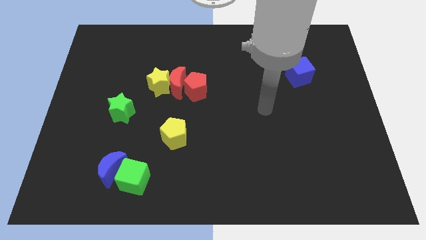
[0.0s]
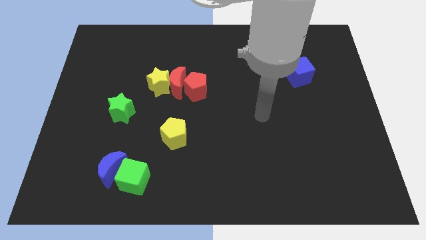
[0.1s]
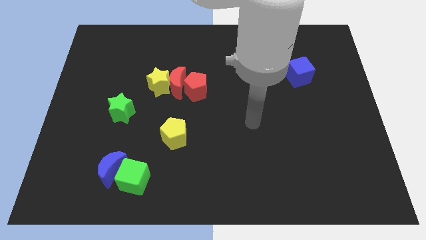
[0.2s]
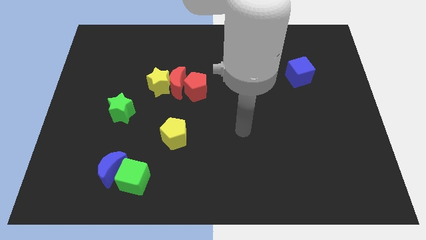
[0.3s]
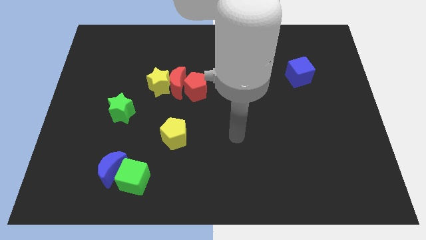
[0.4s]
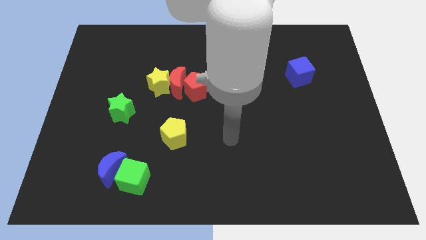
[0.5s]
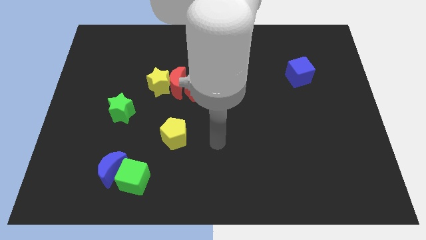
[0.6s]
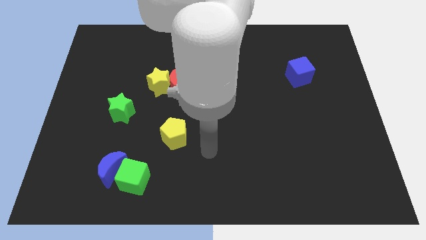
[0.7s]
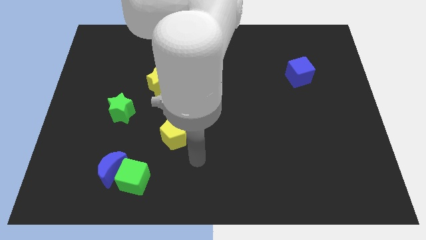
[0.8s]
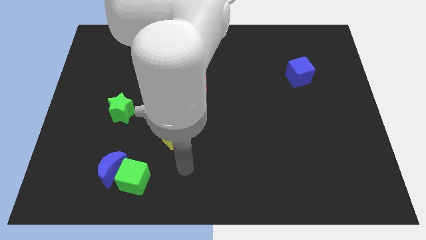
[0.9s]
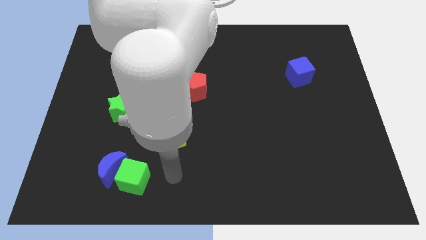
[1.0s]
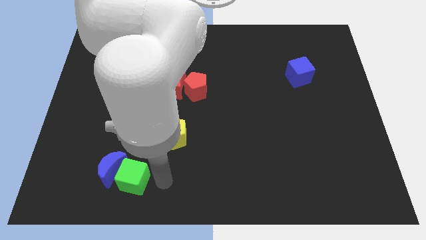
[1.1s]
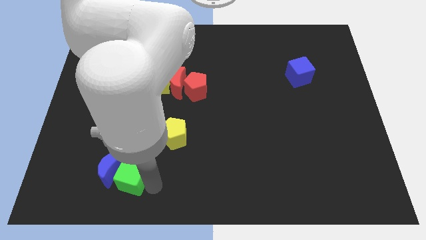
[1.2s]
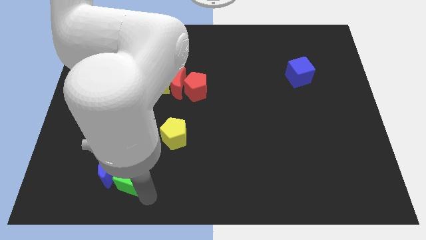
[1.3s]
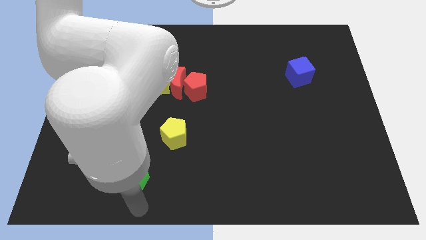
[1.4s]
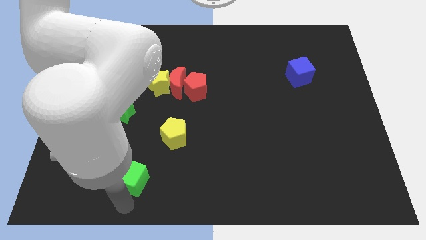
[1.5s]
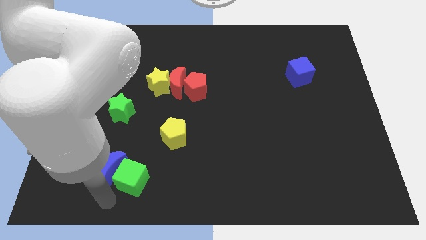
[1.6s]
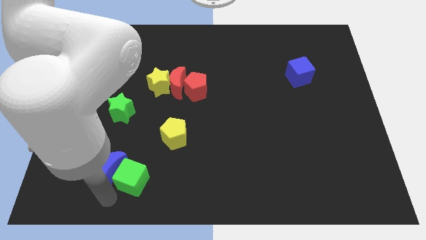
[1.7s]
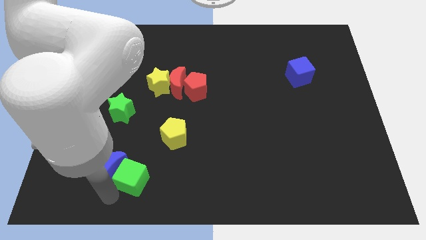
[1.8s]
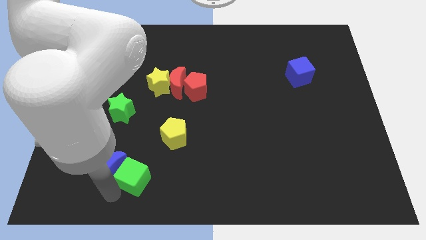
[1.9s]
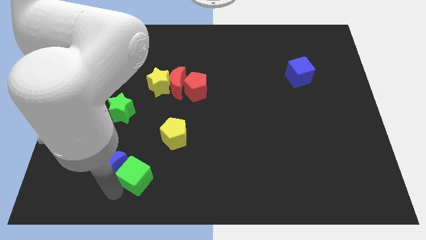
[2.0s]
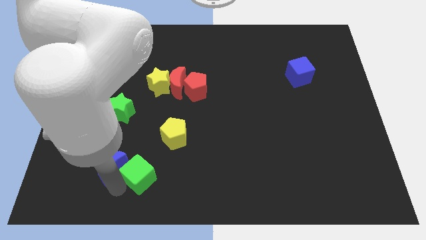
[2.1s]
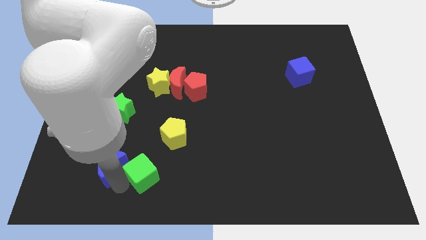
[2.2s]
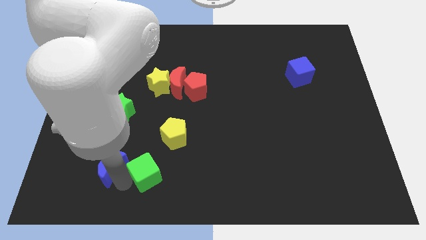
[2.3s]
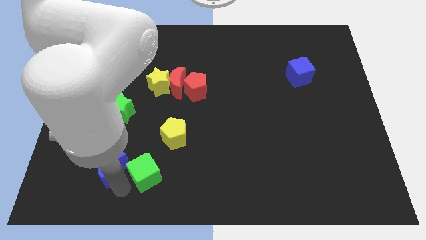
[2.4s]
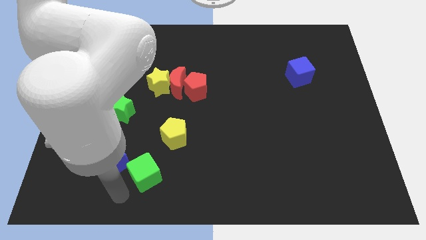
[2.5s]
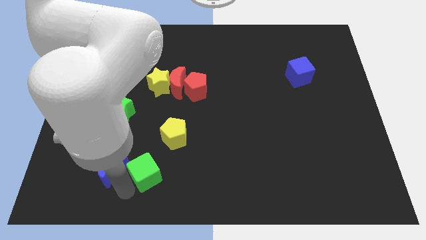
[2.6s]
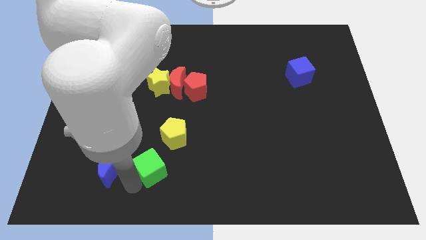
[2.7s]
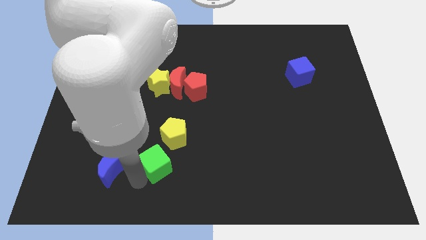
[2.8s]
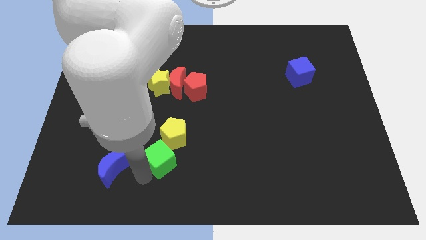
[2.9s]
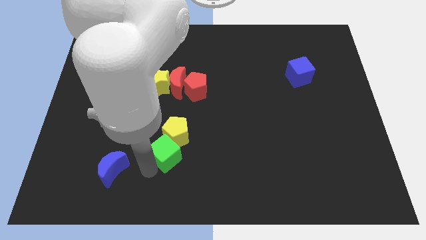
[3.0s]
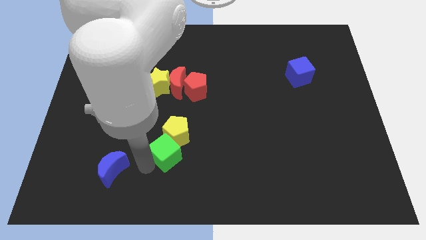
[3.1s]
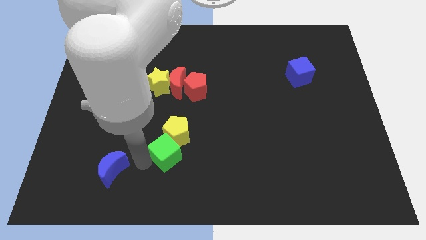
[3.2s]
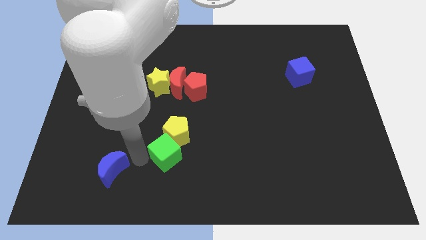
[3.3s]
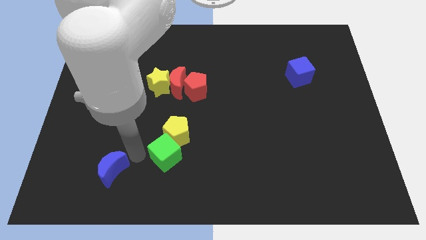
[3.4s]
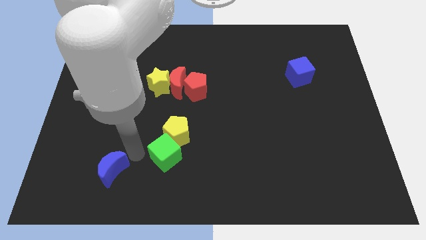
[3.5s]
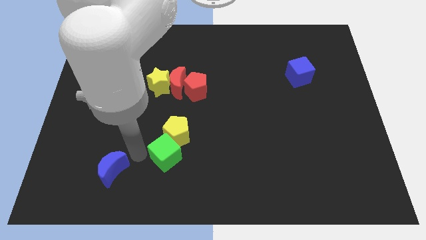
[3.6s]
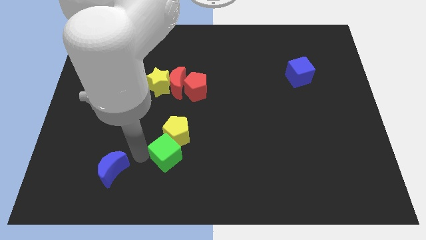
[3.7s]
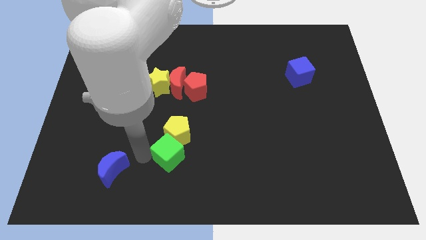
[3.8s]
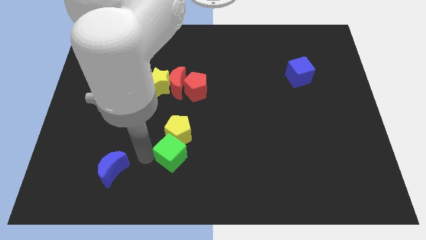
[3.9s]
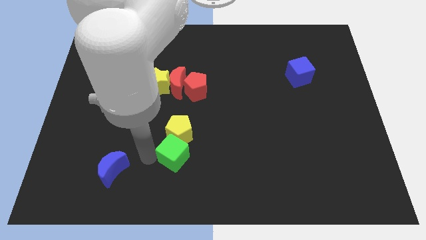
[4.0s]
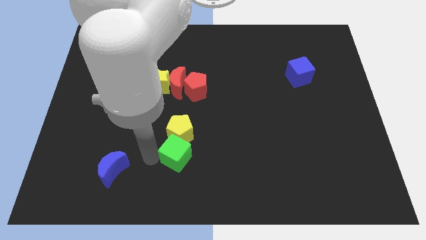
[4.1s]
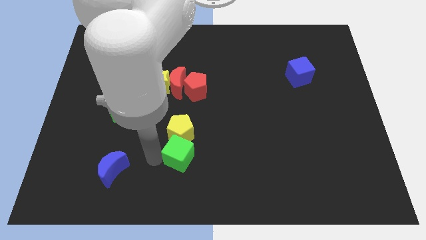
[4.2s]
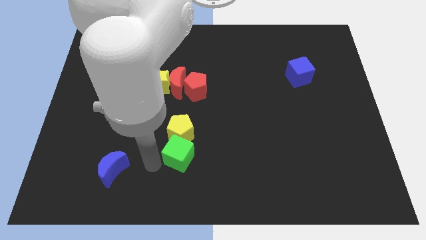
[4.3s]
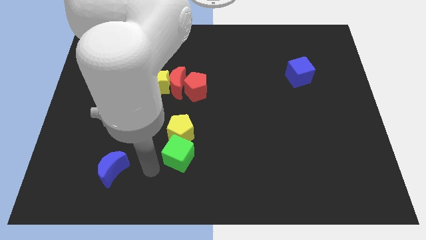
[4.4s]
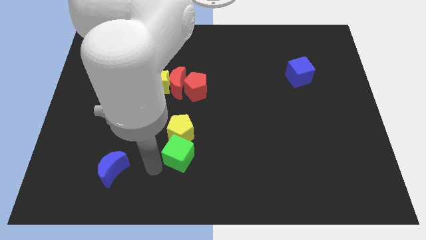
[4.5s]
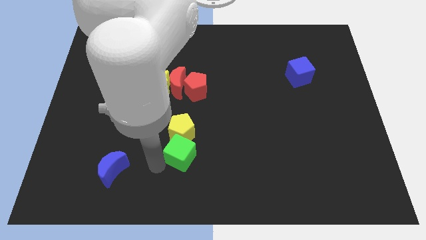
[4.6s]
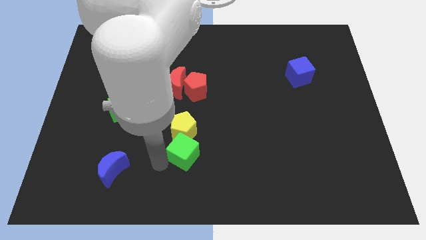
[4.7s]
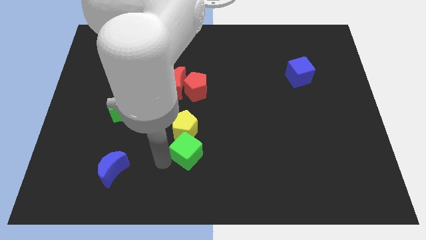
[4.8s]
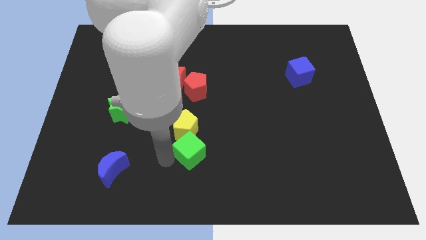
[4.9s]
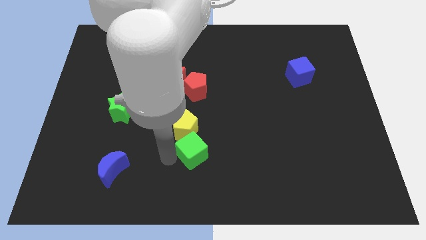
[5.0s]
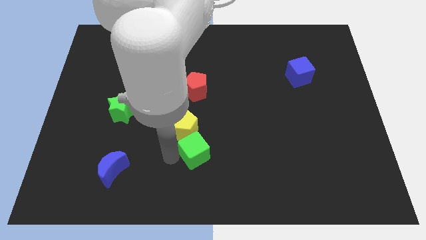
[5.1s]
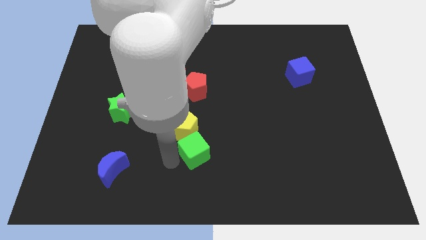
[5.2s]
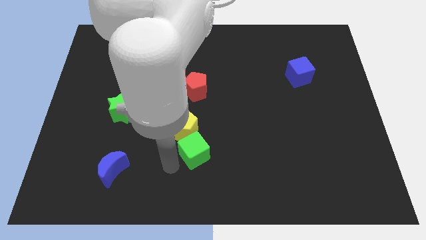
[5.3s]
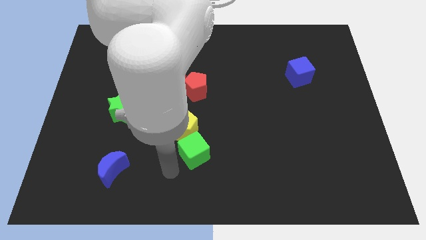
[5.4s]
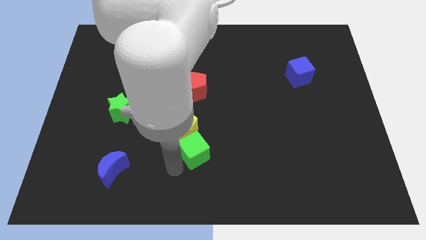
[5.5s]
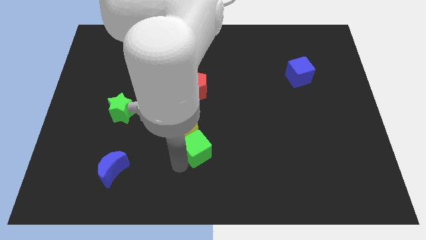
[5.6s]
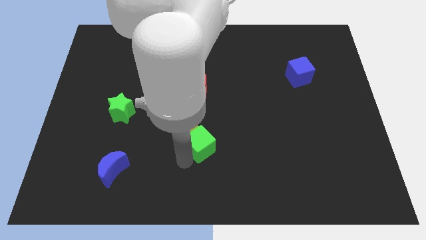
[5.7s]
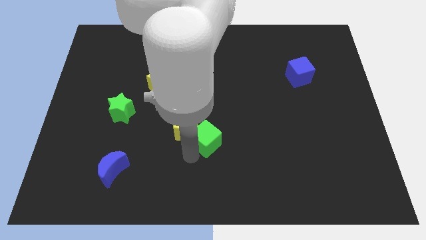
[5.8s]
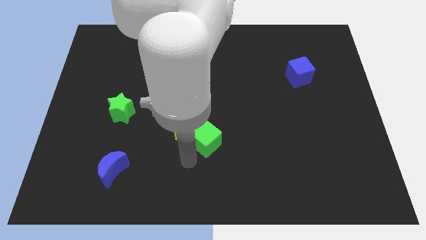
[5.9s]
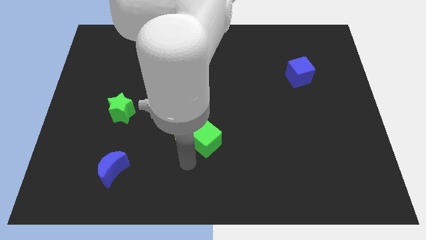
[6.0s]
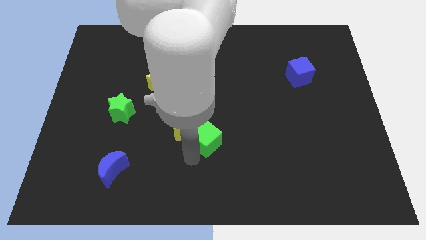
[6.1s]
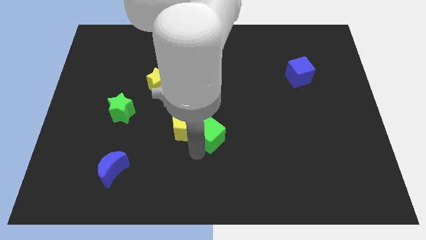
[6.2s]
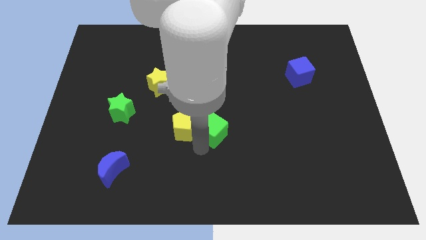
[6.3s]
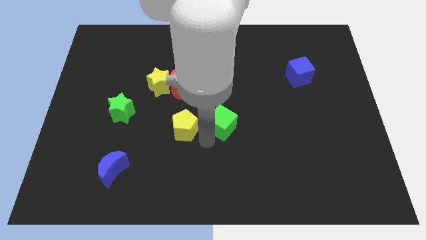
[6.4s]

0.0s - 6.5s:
move the green cube up and right

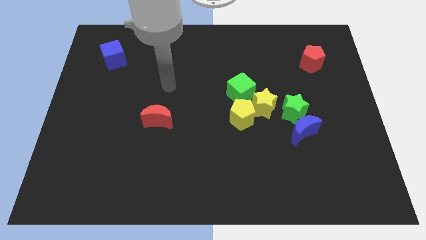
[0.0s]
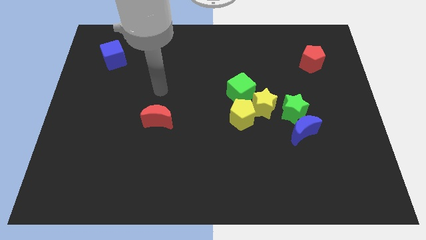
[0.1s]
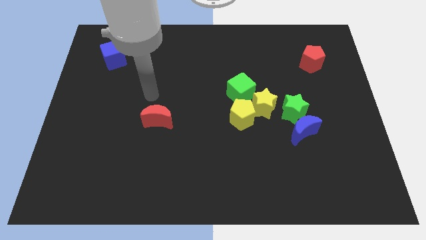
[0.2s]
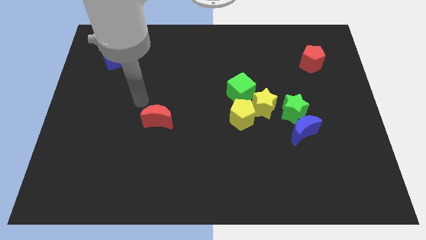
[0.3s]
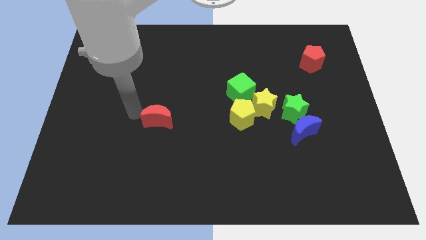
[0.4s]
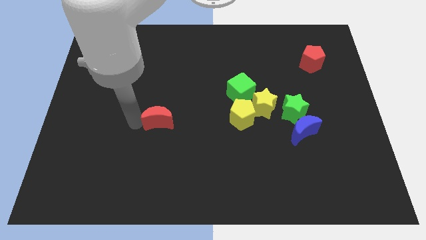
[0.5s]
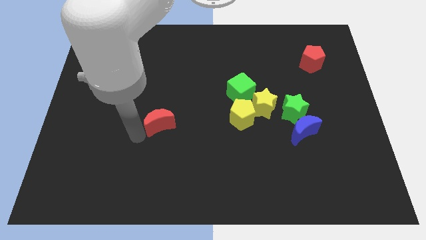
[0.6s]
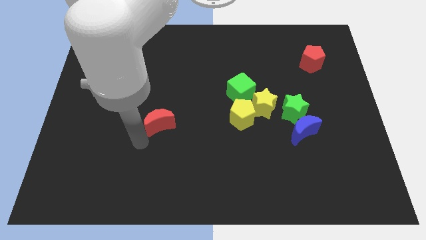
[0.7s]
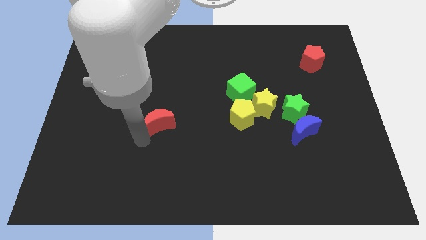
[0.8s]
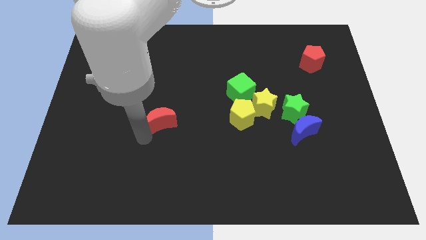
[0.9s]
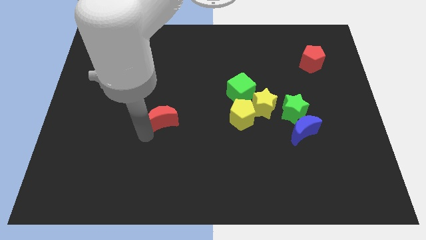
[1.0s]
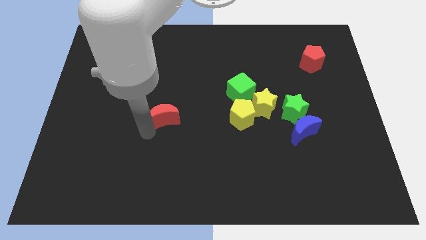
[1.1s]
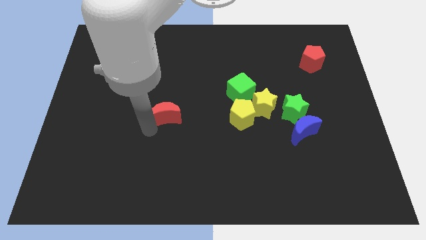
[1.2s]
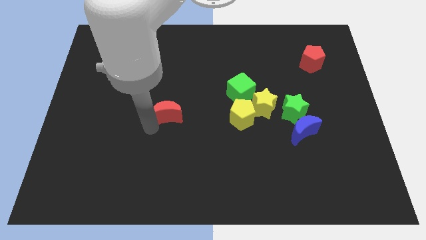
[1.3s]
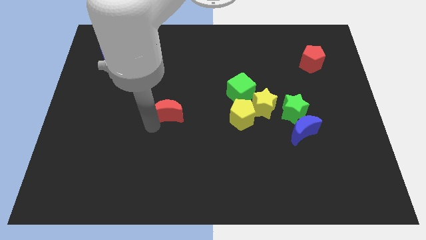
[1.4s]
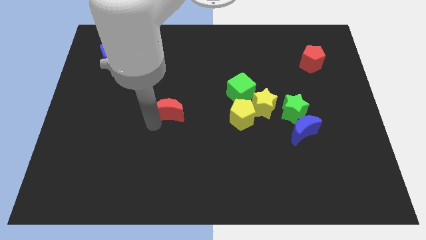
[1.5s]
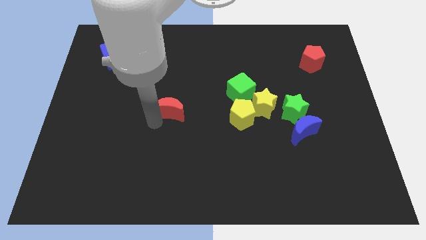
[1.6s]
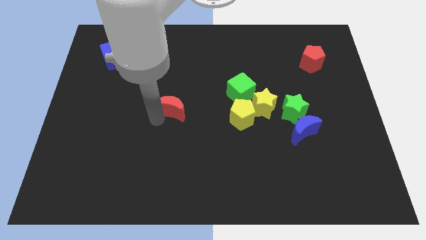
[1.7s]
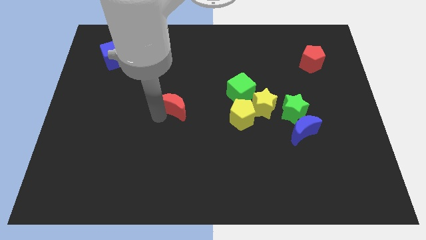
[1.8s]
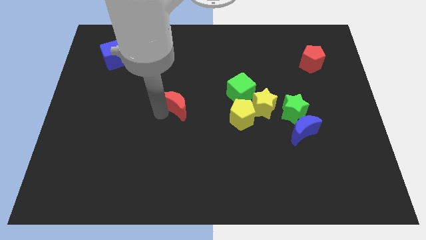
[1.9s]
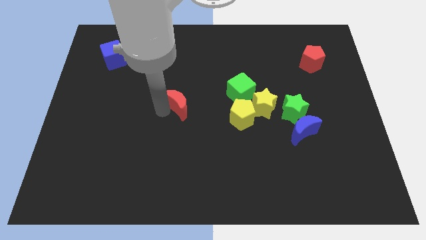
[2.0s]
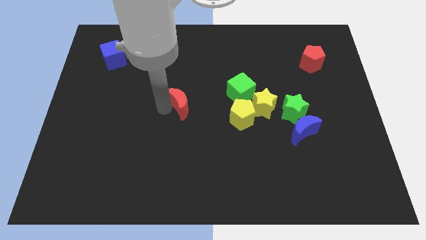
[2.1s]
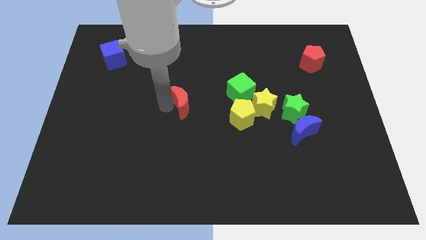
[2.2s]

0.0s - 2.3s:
slide the red moon a bit up and right
